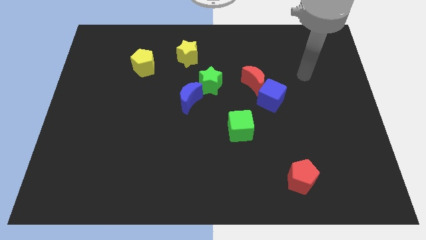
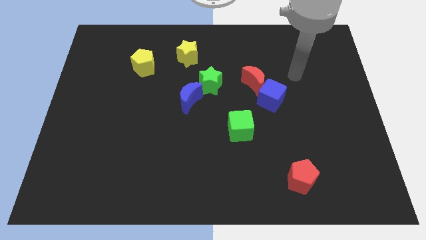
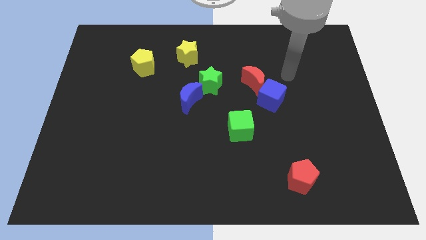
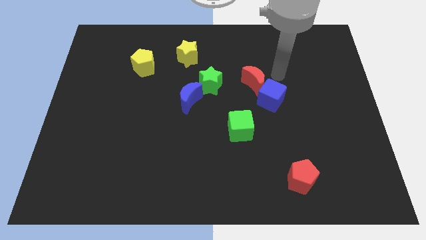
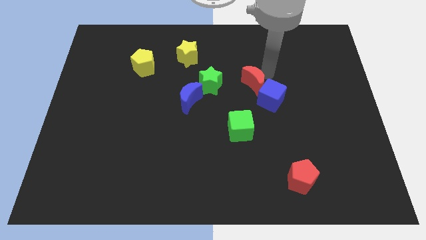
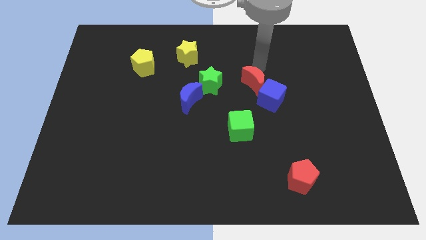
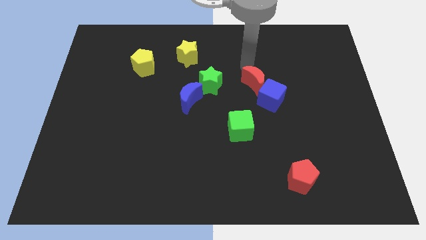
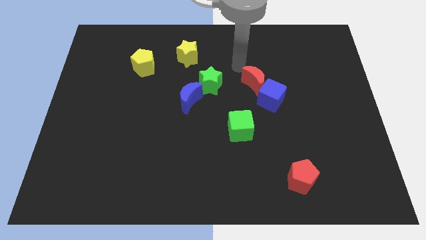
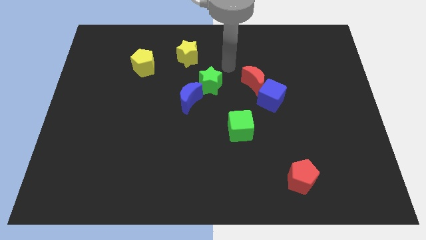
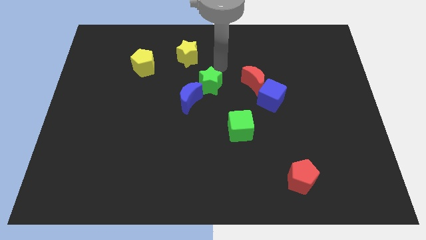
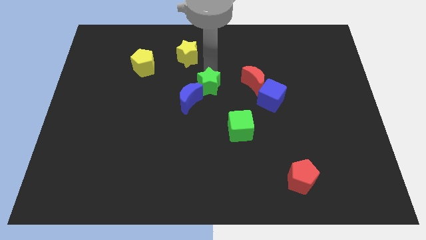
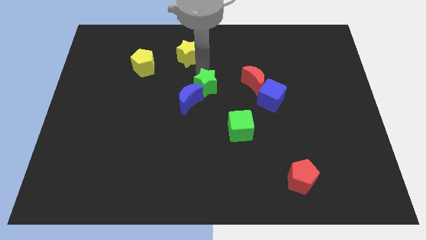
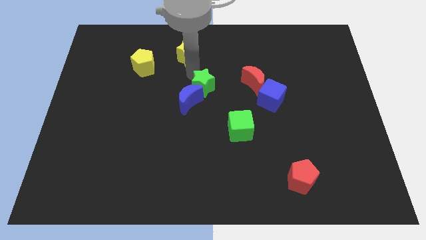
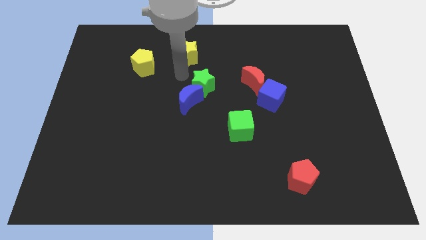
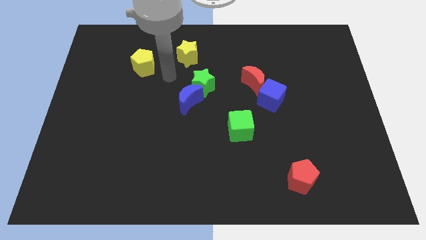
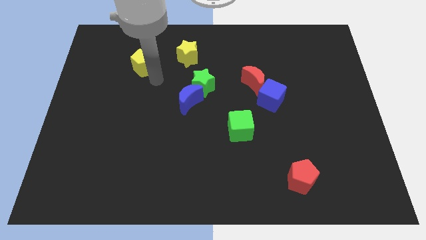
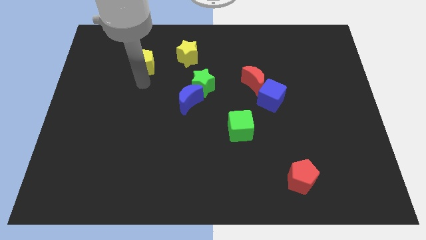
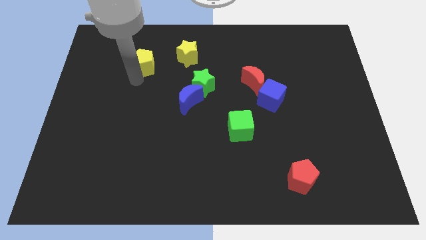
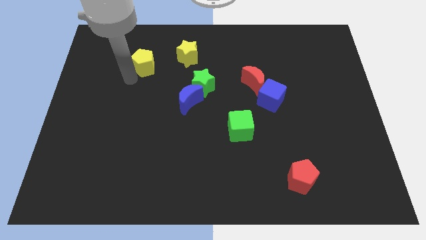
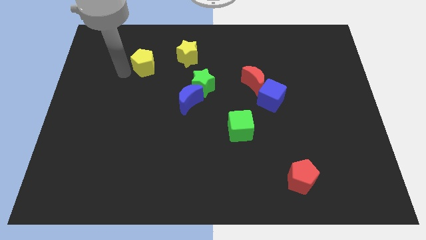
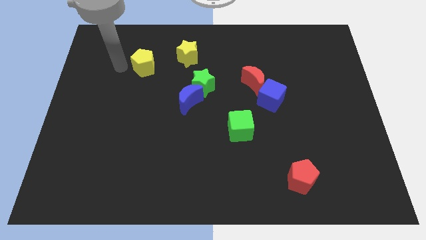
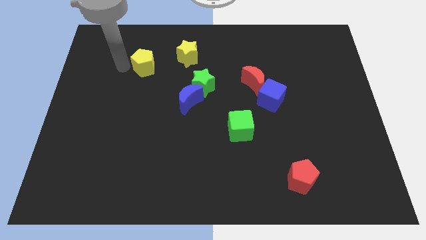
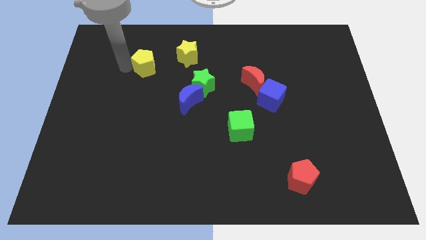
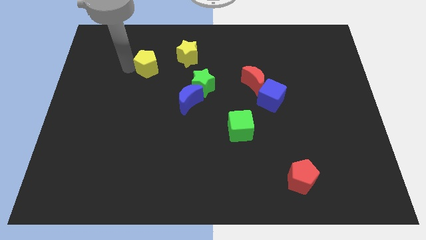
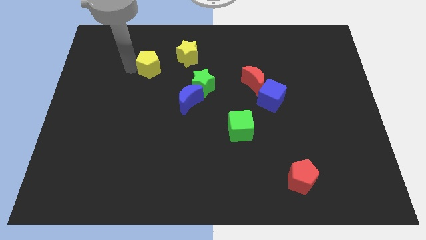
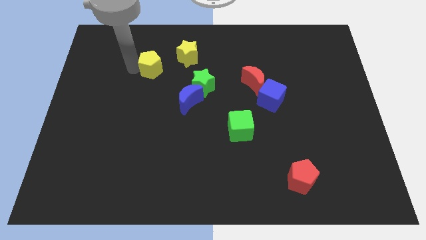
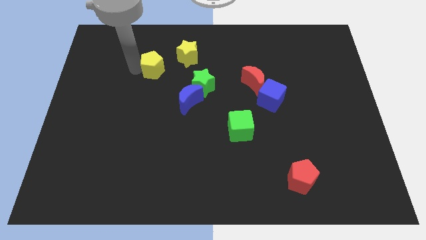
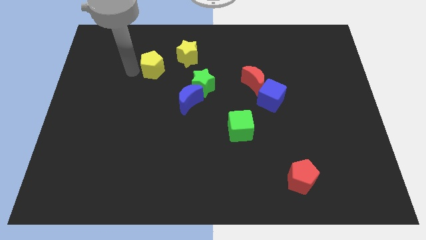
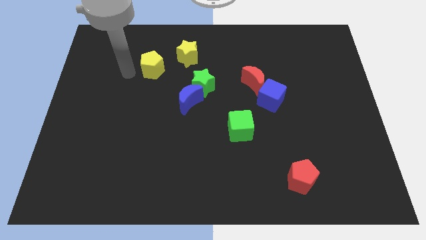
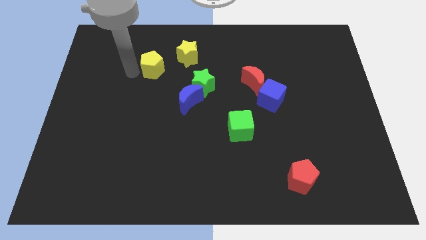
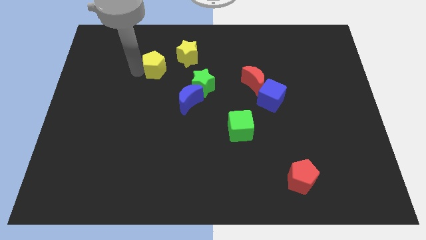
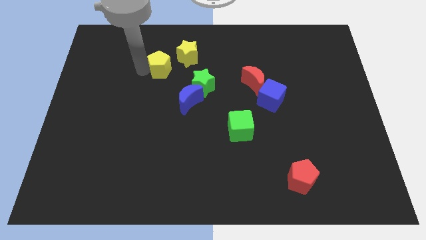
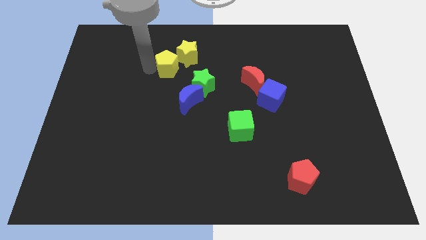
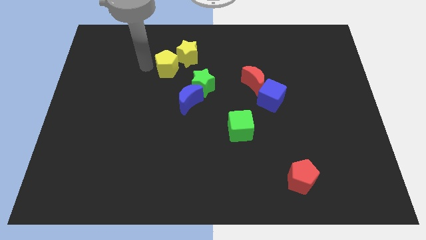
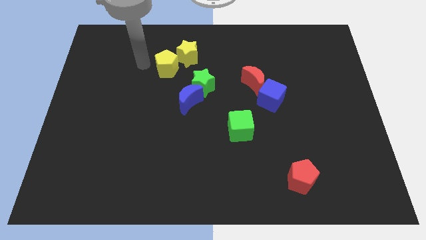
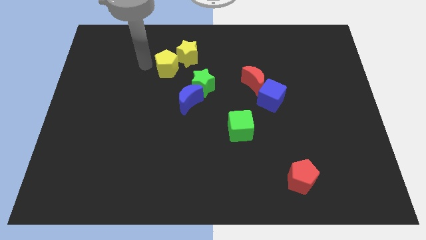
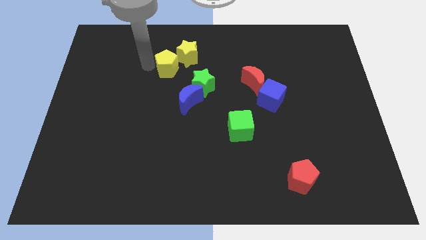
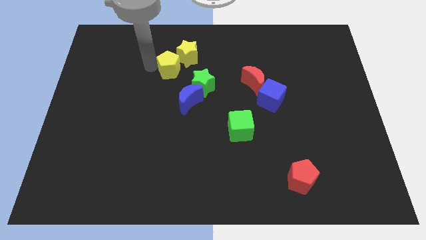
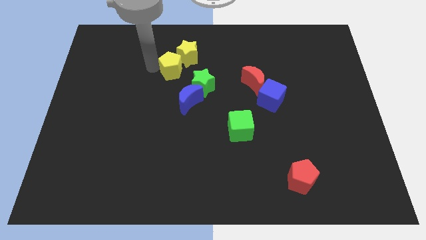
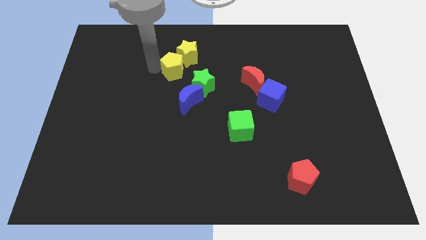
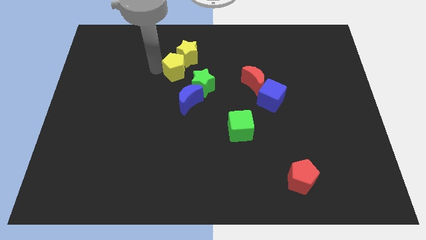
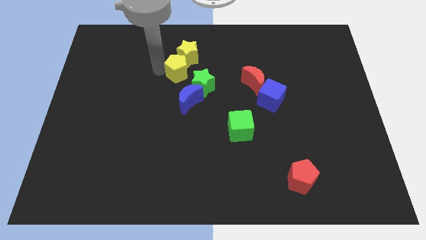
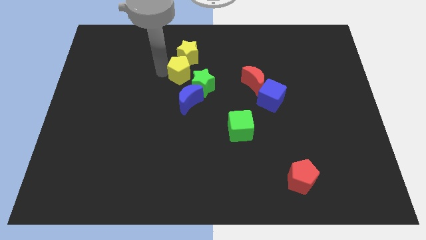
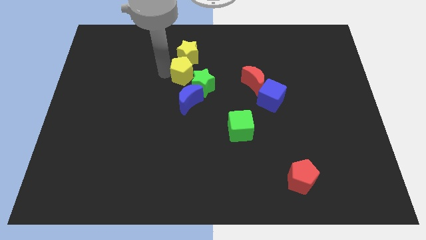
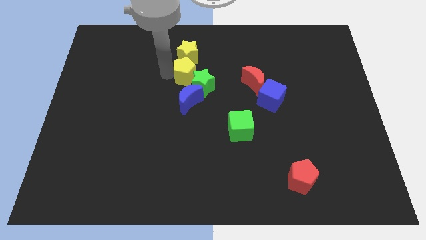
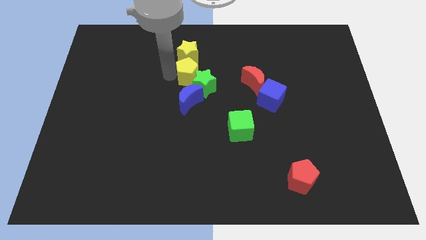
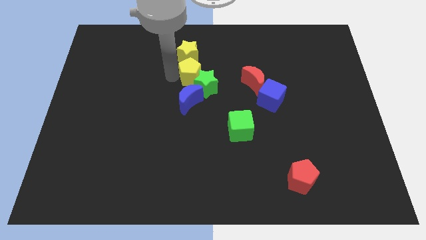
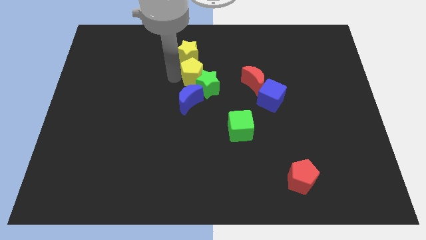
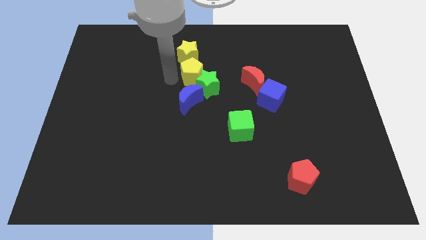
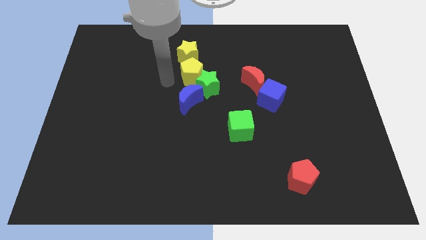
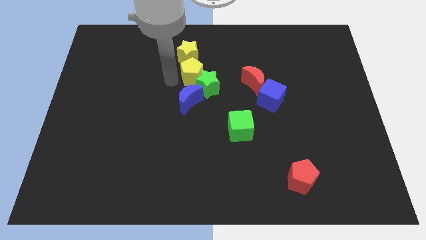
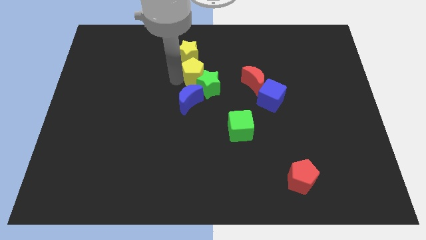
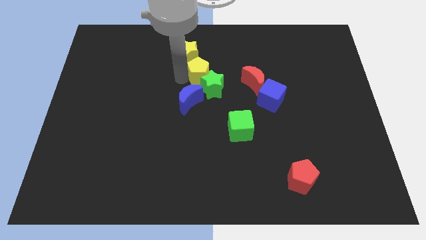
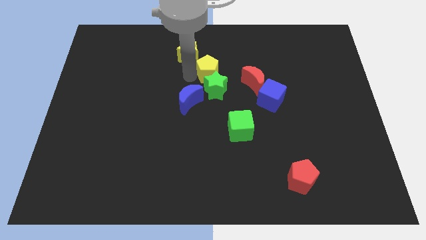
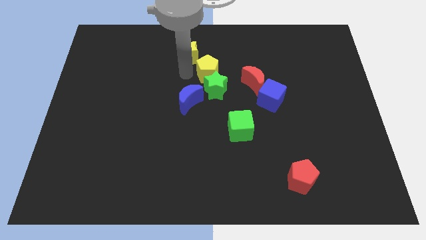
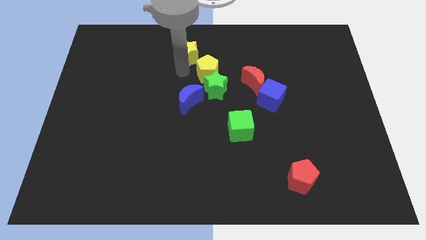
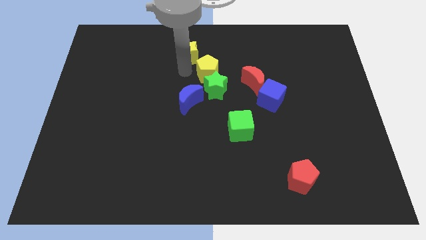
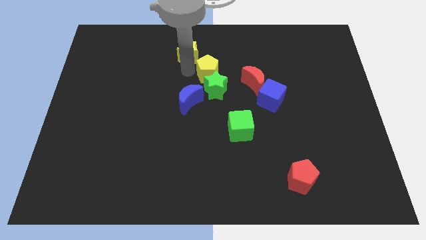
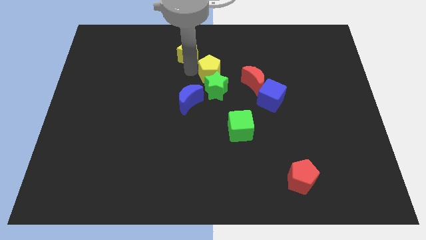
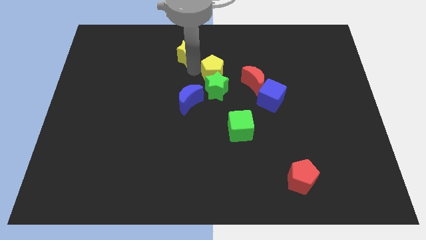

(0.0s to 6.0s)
move the yellow pentagon to the top right side of the green star

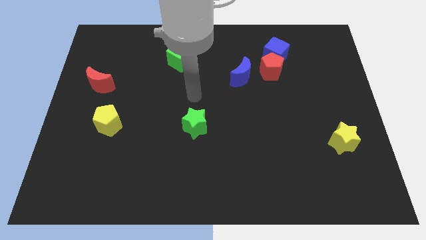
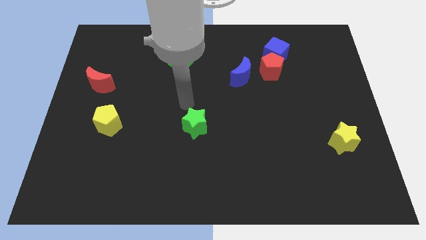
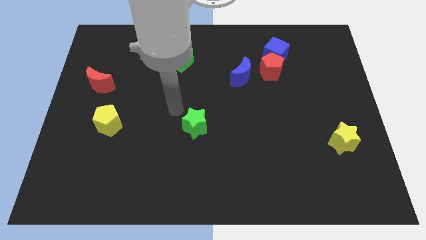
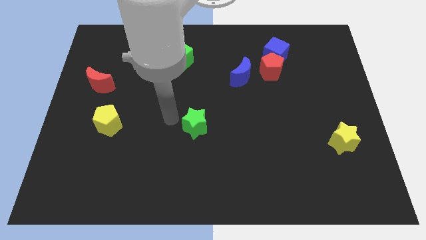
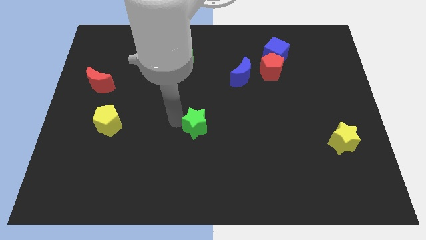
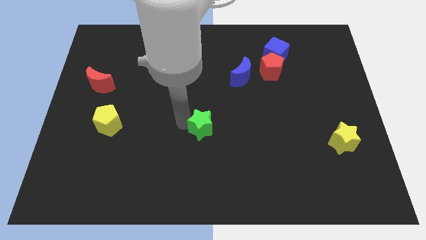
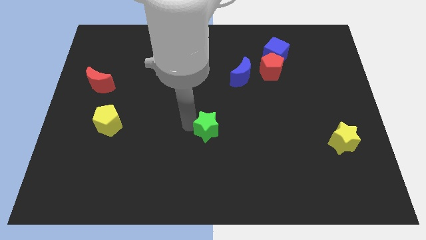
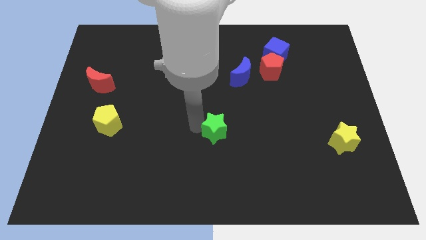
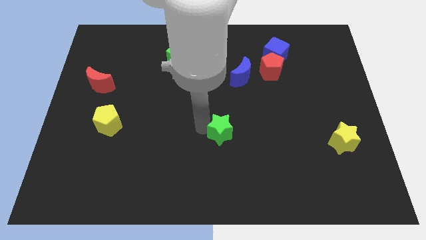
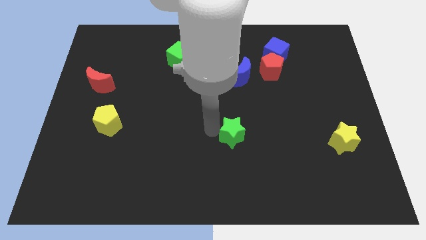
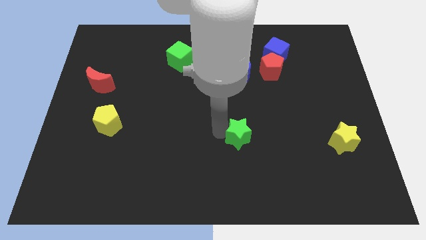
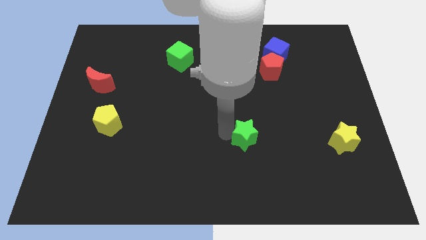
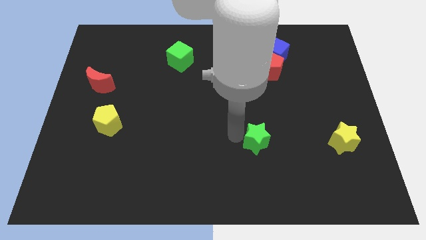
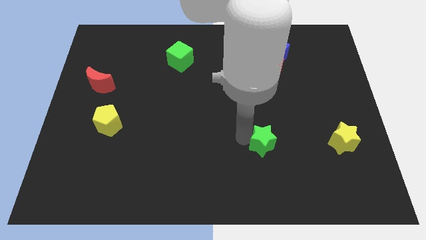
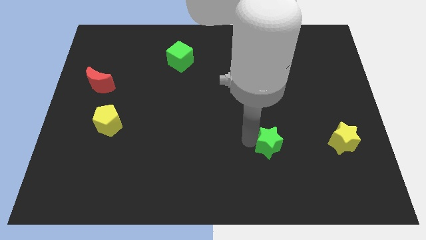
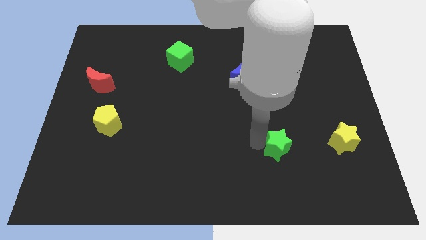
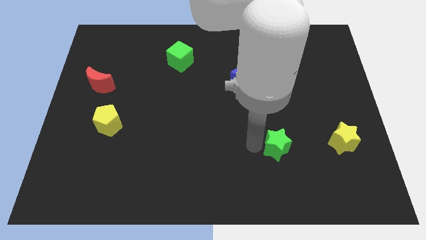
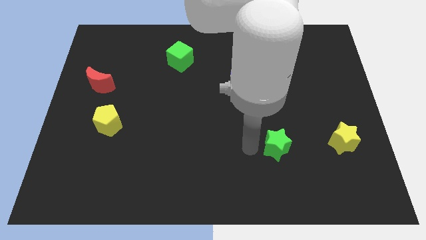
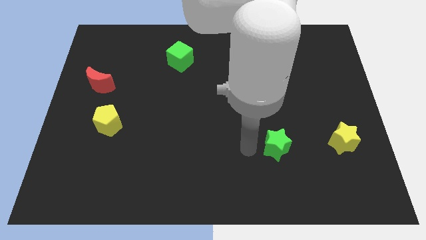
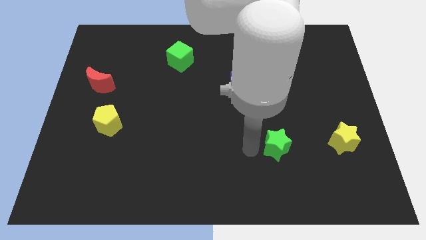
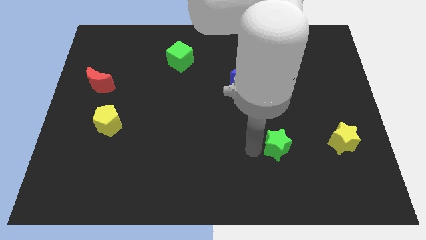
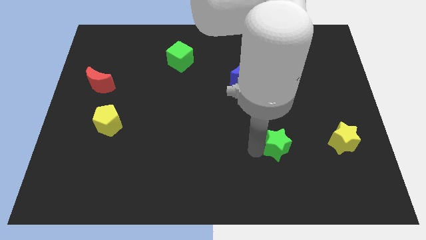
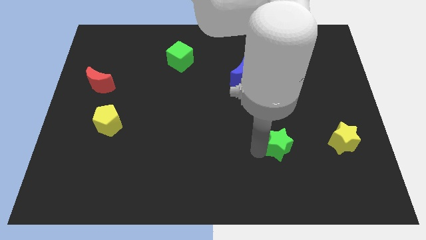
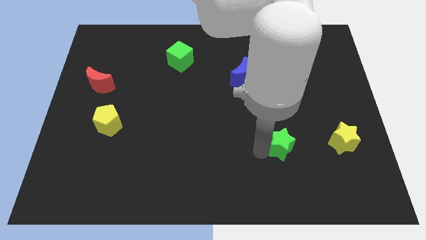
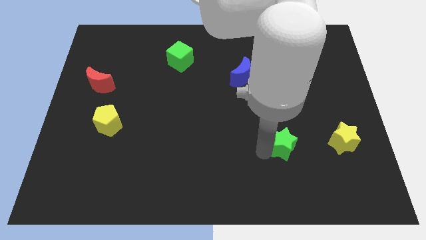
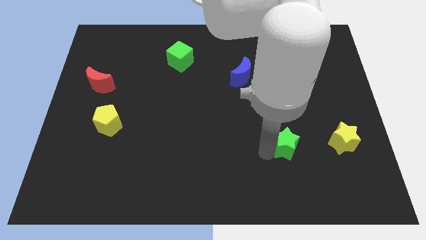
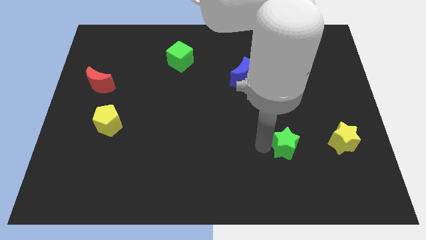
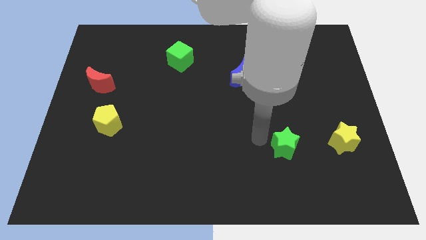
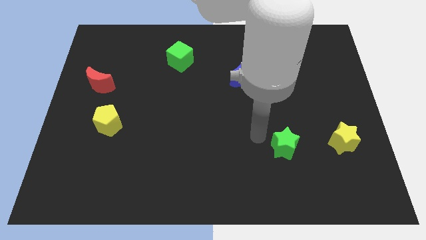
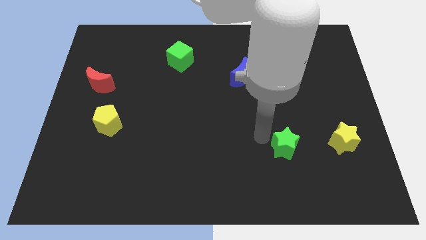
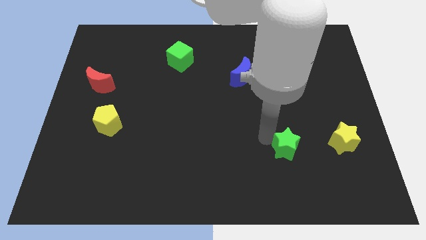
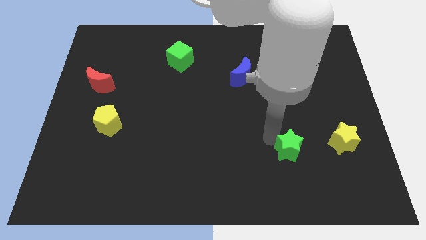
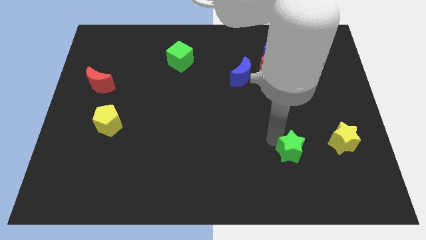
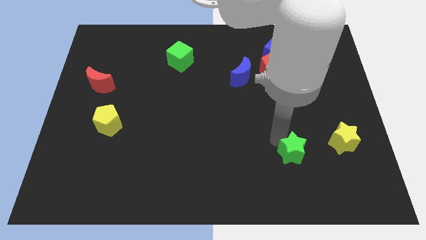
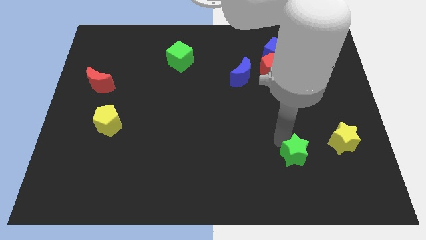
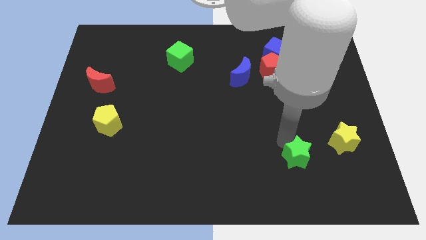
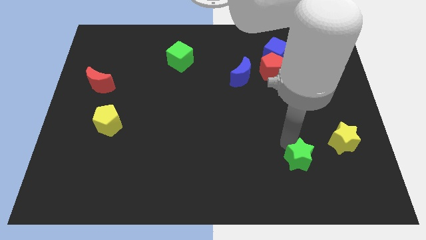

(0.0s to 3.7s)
push the green star to the bottom left of the yellow star
